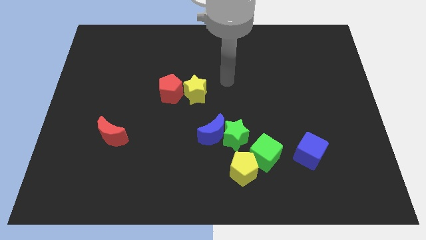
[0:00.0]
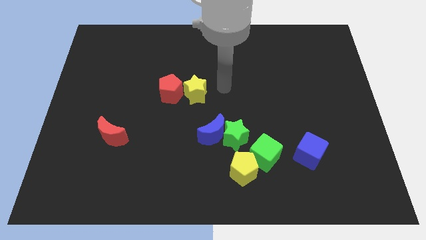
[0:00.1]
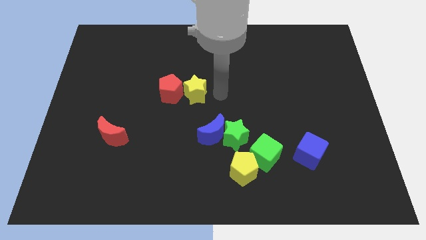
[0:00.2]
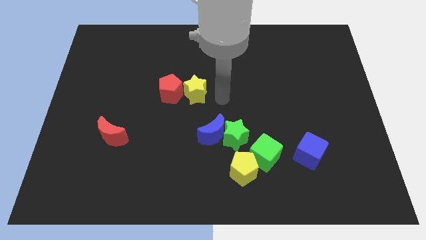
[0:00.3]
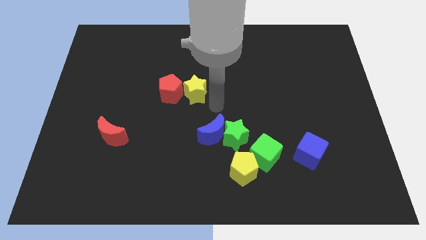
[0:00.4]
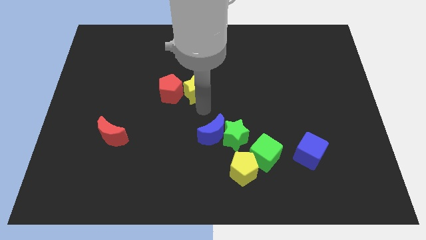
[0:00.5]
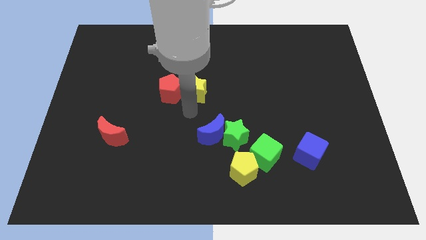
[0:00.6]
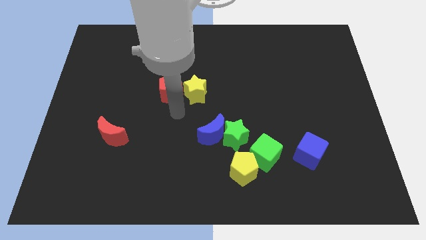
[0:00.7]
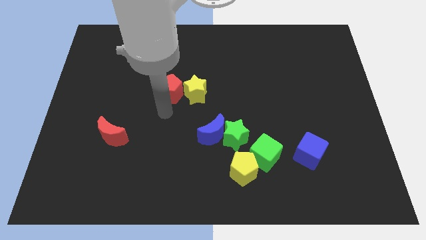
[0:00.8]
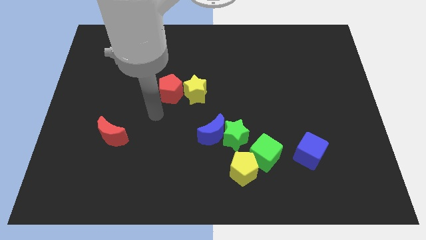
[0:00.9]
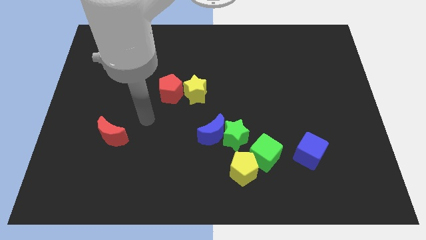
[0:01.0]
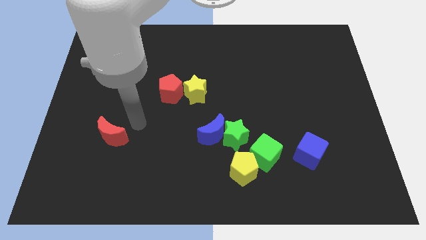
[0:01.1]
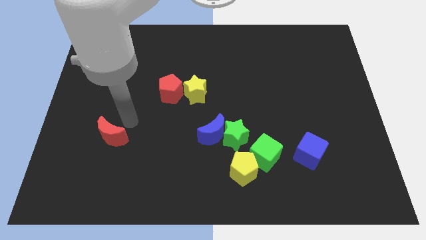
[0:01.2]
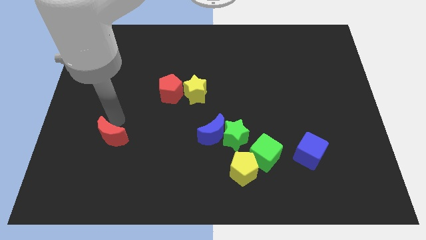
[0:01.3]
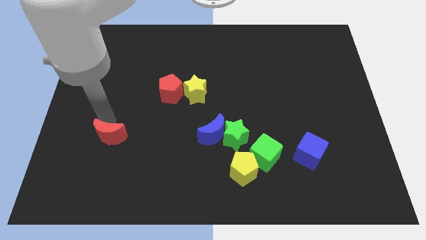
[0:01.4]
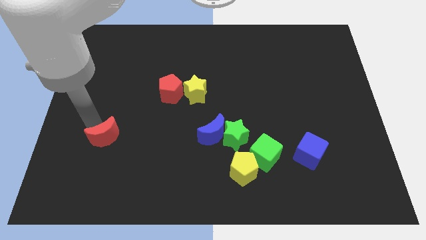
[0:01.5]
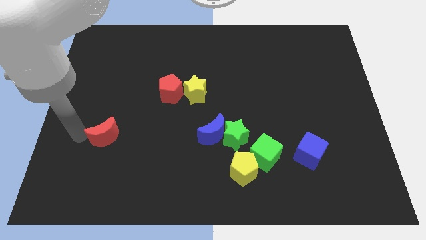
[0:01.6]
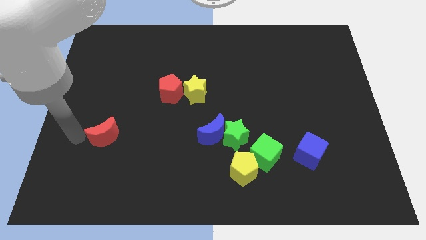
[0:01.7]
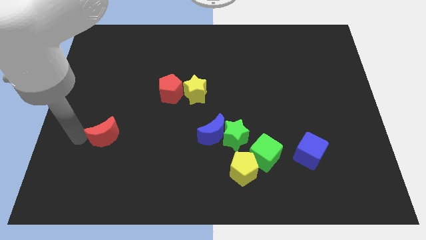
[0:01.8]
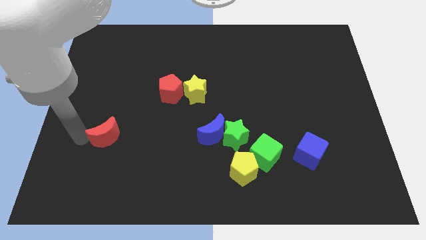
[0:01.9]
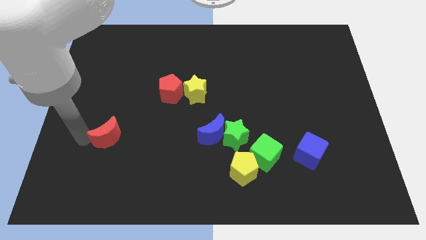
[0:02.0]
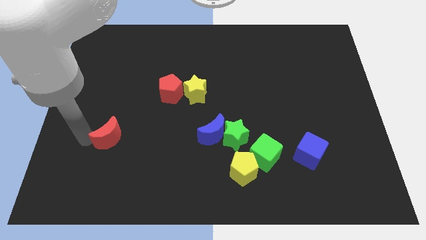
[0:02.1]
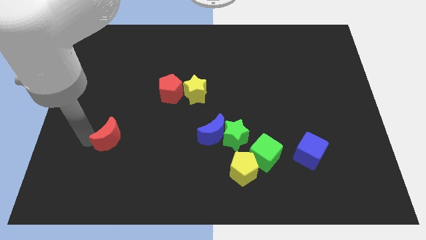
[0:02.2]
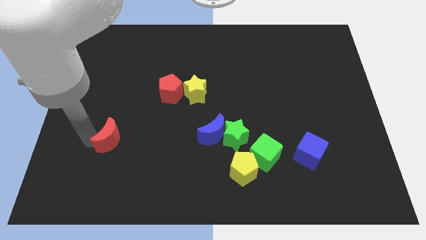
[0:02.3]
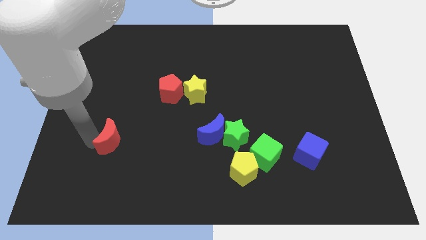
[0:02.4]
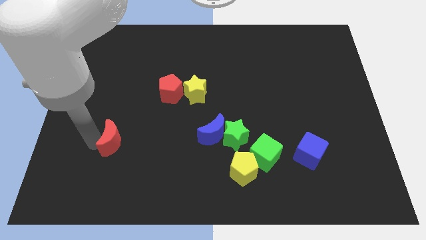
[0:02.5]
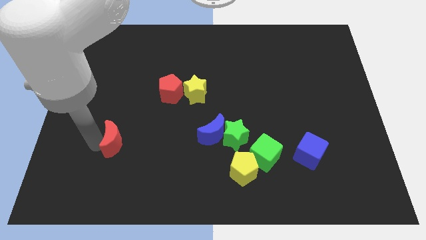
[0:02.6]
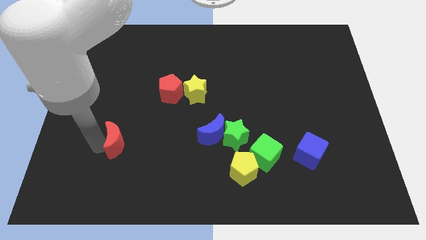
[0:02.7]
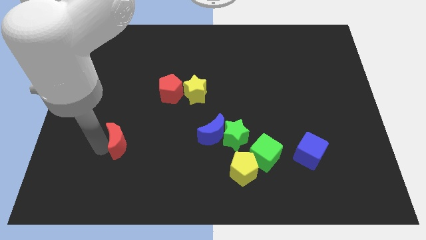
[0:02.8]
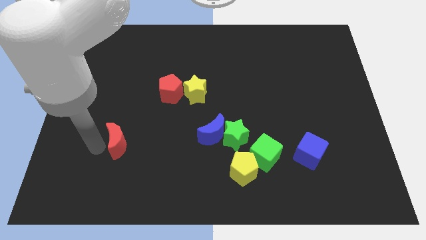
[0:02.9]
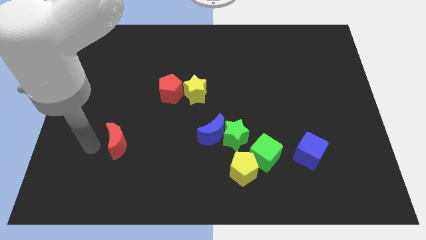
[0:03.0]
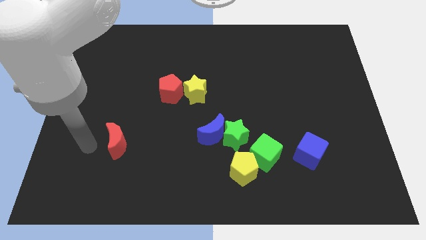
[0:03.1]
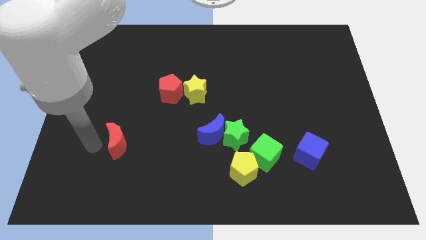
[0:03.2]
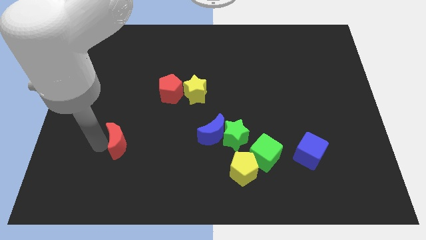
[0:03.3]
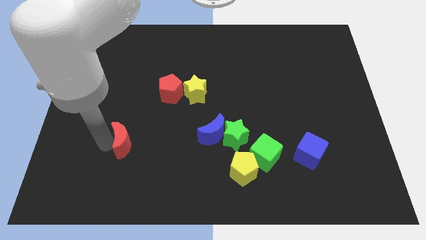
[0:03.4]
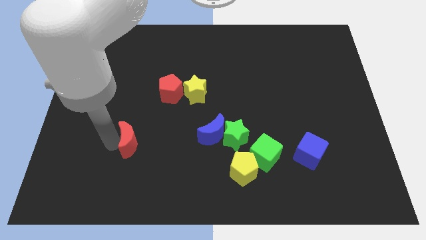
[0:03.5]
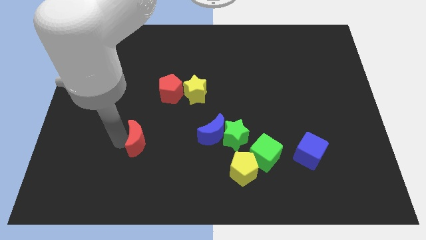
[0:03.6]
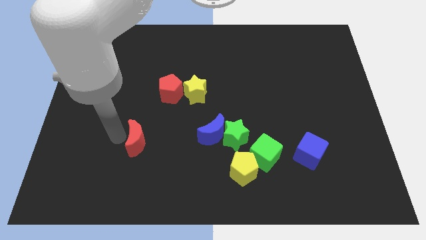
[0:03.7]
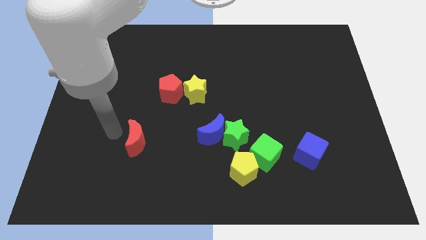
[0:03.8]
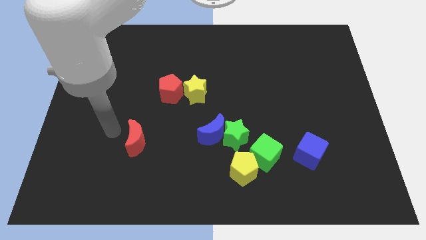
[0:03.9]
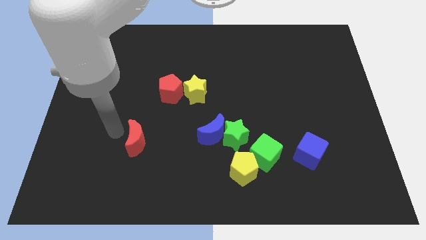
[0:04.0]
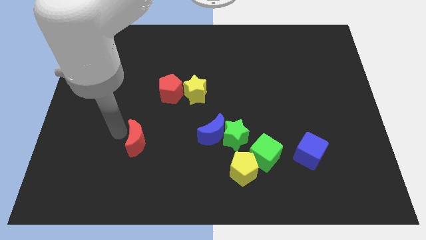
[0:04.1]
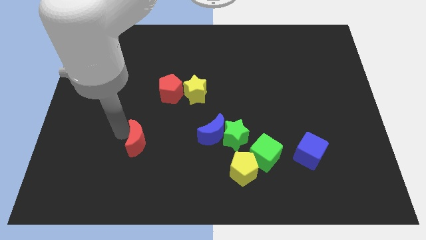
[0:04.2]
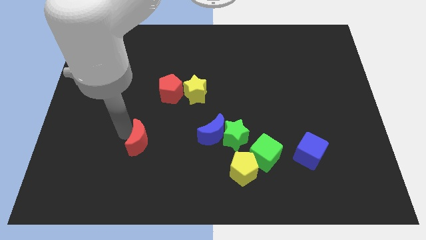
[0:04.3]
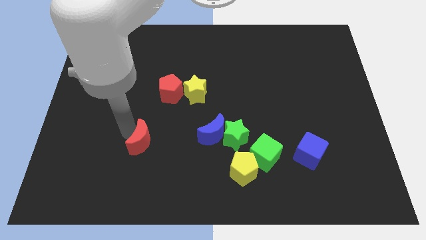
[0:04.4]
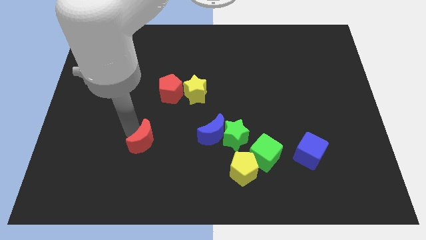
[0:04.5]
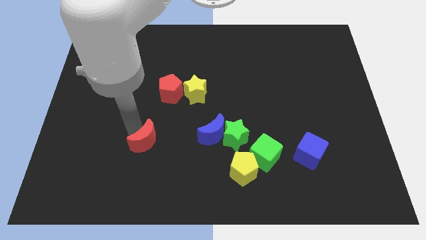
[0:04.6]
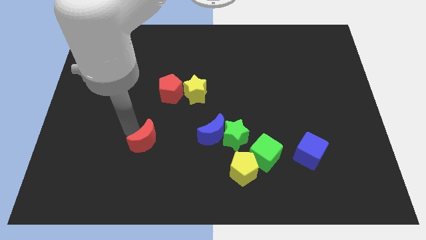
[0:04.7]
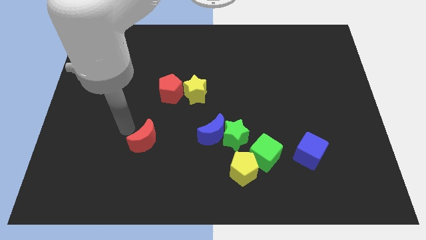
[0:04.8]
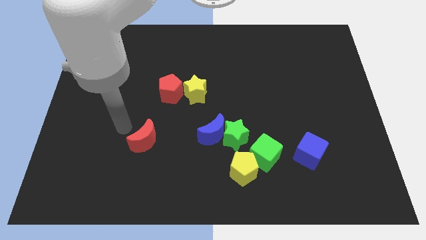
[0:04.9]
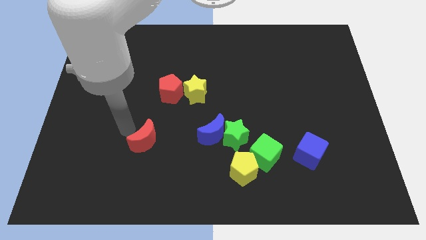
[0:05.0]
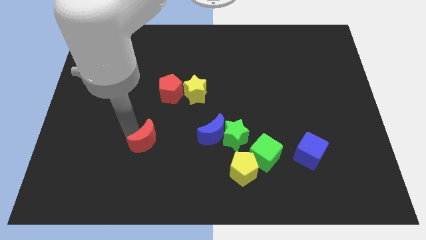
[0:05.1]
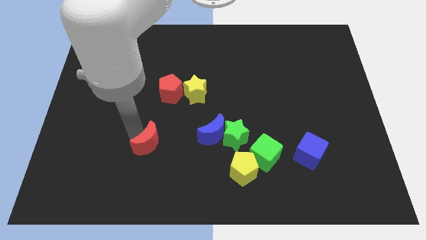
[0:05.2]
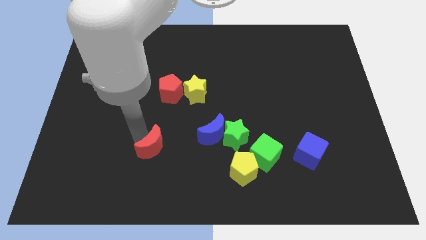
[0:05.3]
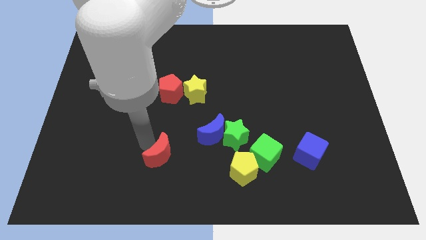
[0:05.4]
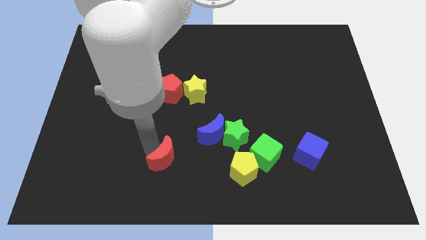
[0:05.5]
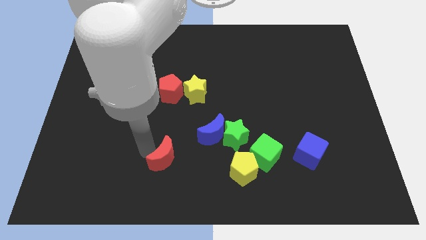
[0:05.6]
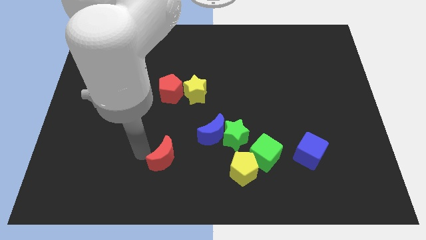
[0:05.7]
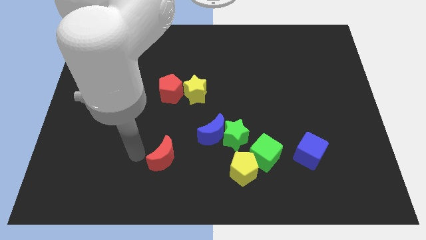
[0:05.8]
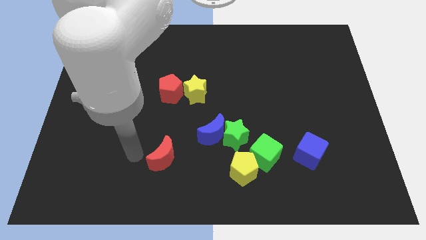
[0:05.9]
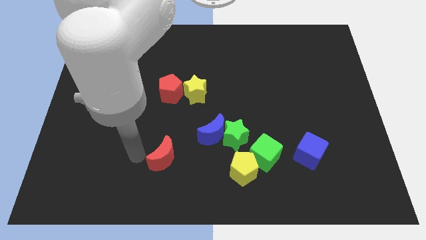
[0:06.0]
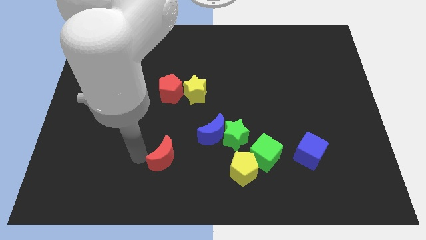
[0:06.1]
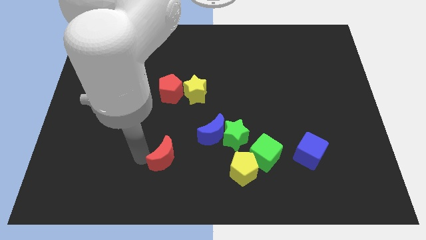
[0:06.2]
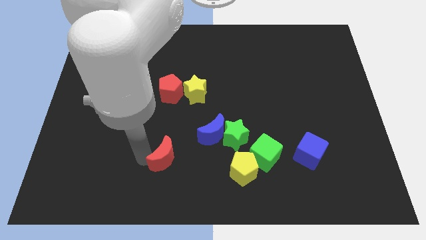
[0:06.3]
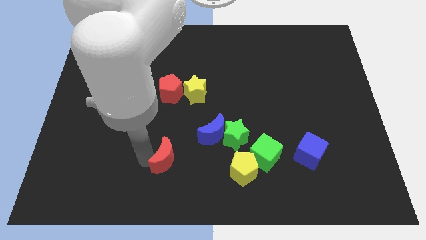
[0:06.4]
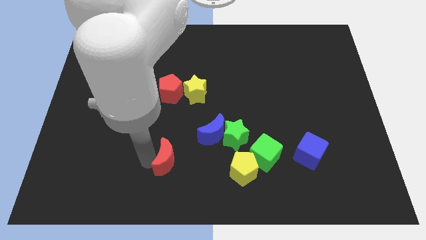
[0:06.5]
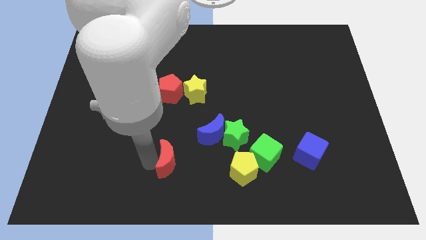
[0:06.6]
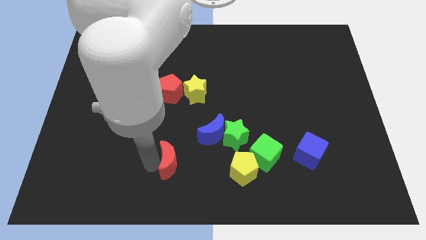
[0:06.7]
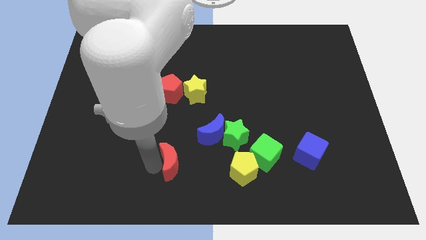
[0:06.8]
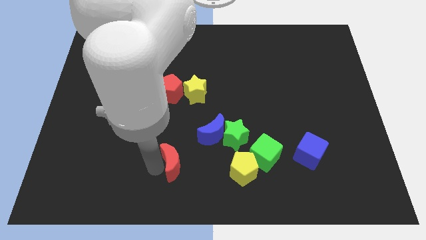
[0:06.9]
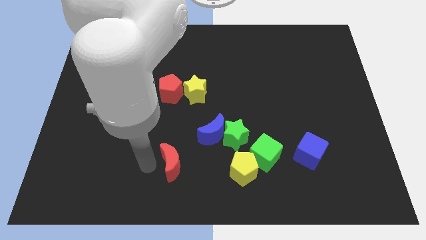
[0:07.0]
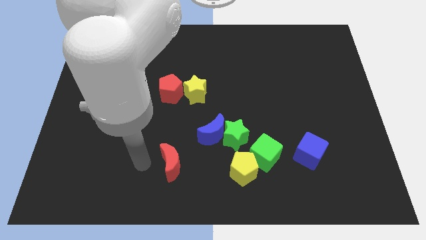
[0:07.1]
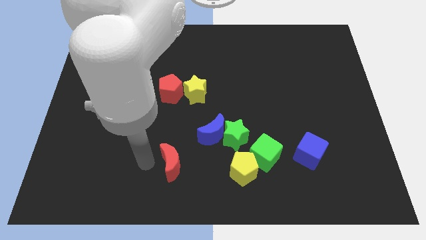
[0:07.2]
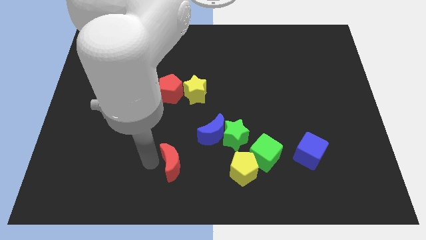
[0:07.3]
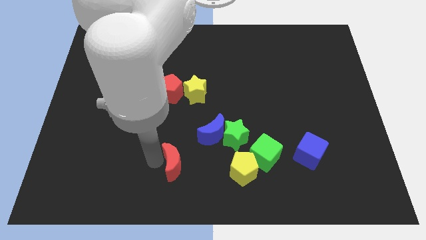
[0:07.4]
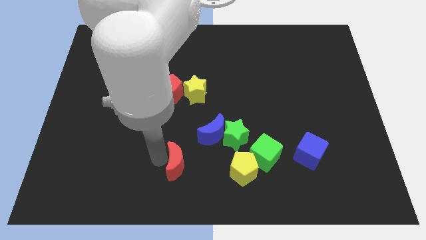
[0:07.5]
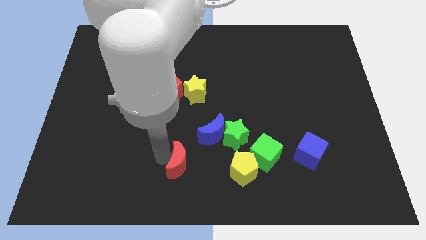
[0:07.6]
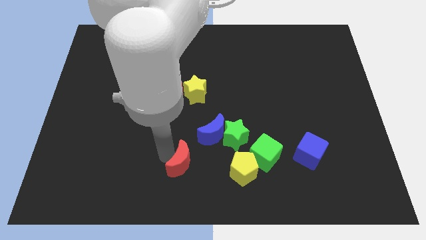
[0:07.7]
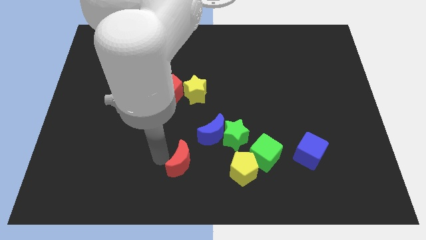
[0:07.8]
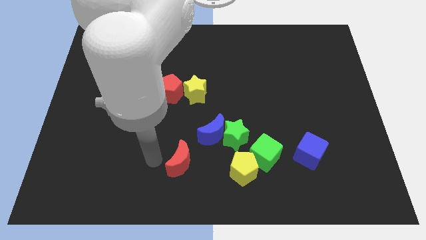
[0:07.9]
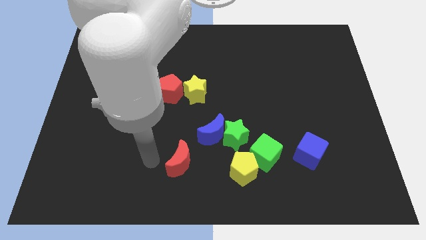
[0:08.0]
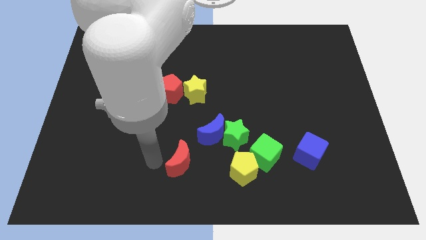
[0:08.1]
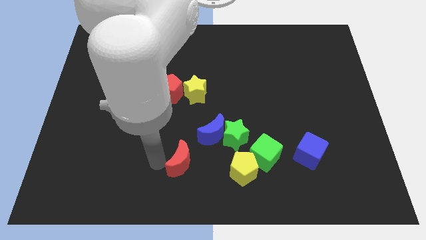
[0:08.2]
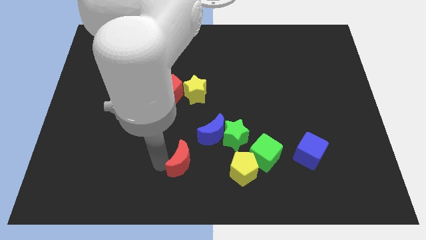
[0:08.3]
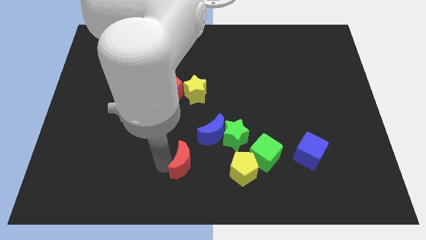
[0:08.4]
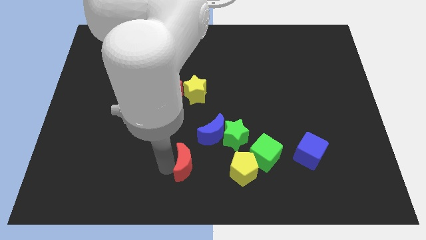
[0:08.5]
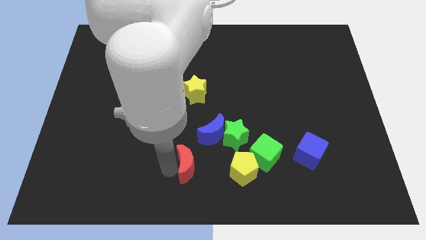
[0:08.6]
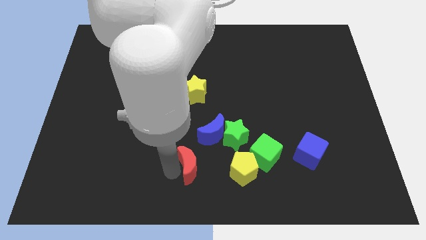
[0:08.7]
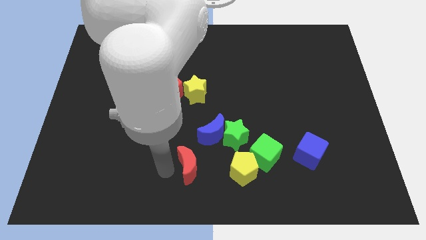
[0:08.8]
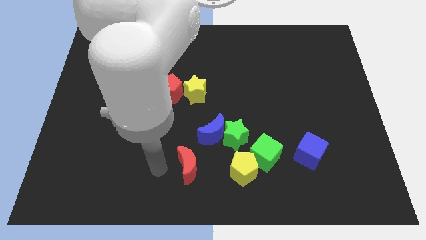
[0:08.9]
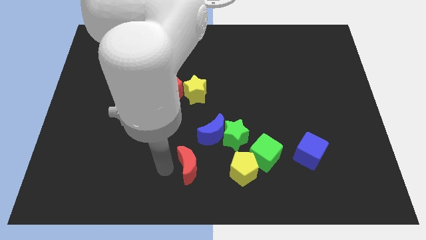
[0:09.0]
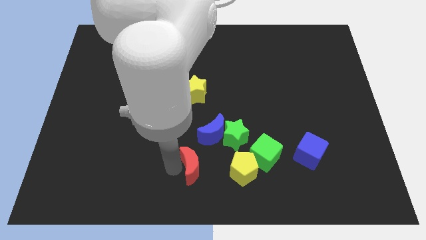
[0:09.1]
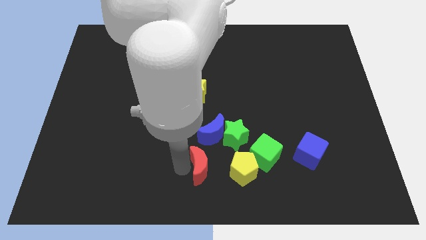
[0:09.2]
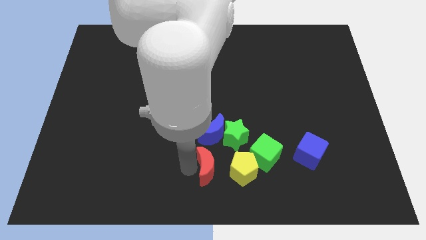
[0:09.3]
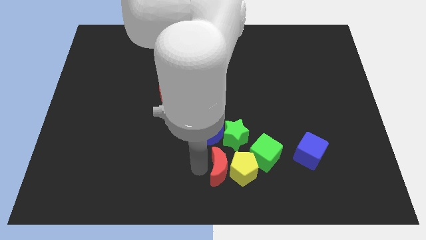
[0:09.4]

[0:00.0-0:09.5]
push the red moon close to the yellow pentagon
